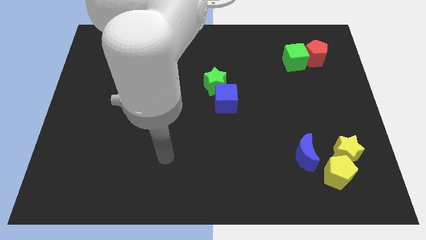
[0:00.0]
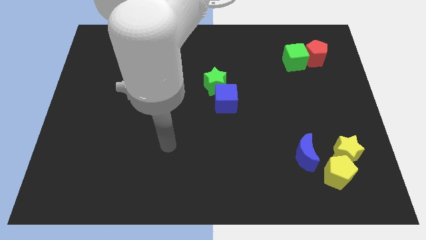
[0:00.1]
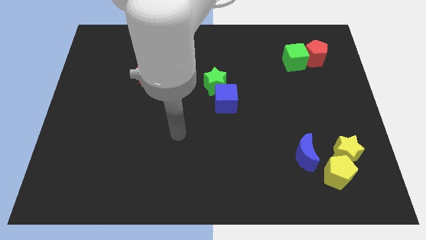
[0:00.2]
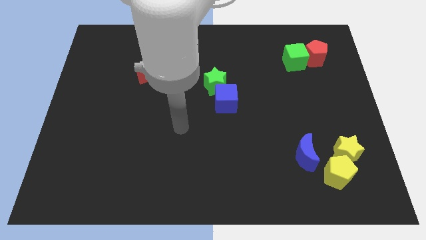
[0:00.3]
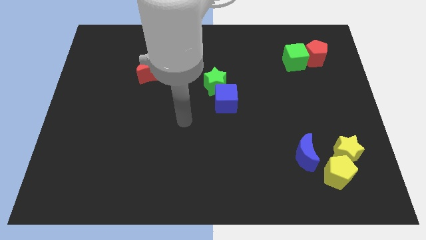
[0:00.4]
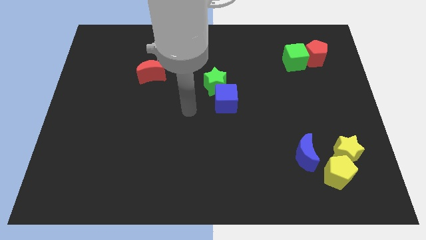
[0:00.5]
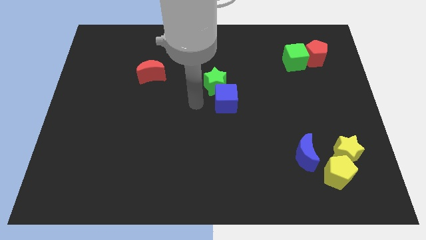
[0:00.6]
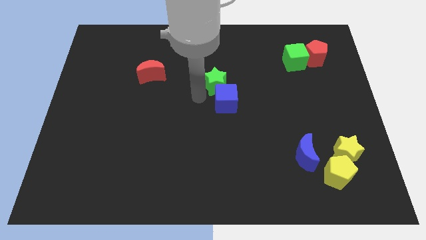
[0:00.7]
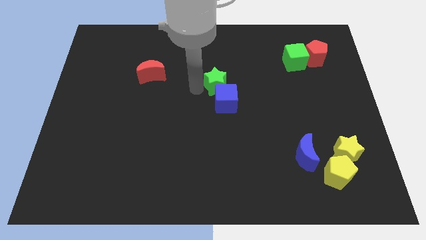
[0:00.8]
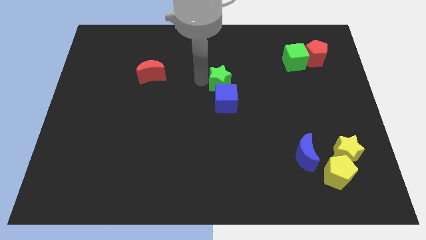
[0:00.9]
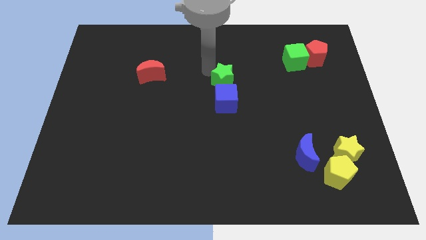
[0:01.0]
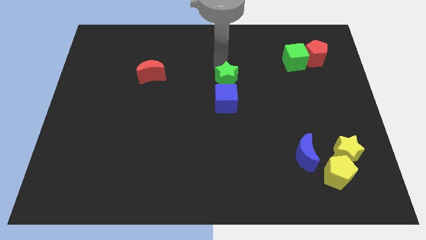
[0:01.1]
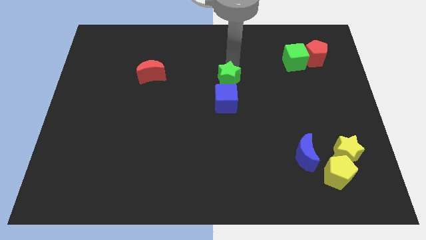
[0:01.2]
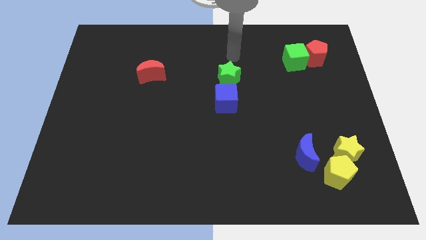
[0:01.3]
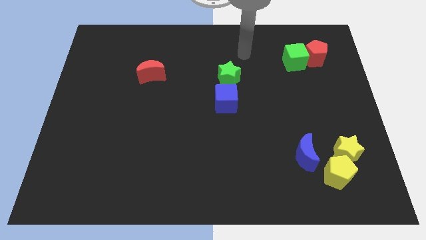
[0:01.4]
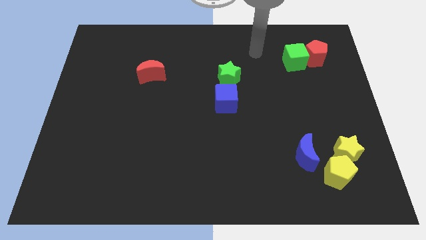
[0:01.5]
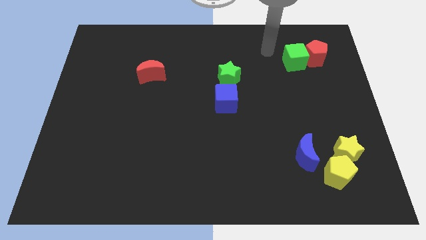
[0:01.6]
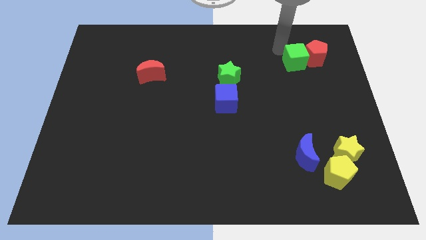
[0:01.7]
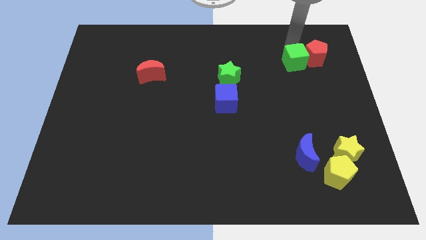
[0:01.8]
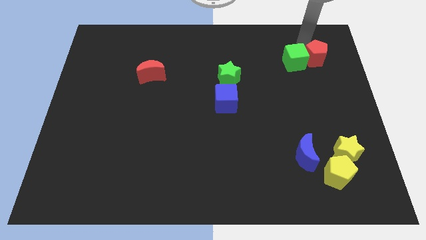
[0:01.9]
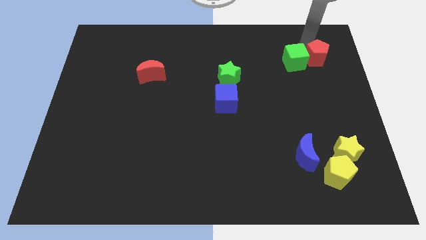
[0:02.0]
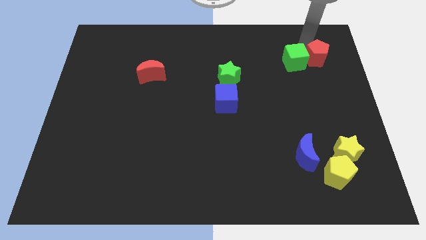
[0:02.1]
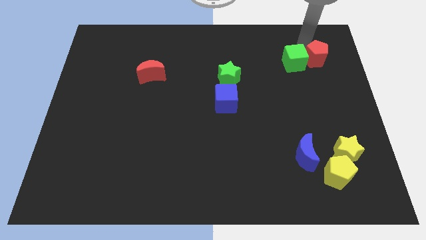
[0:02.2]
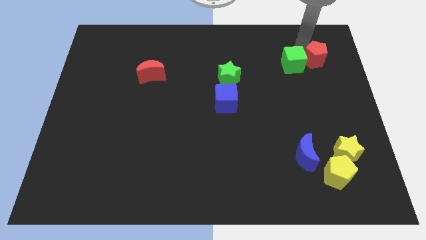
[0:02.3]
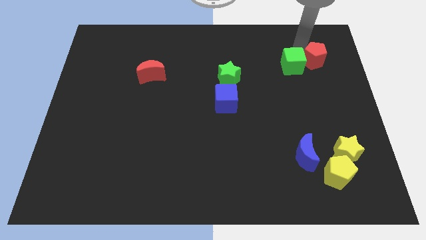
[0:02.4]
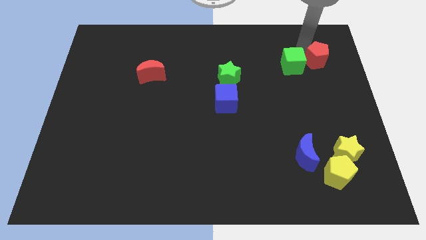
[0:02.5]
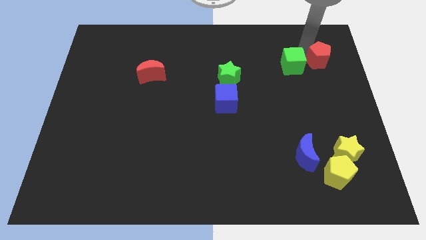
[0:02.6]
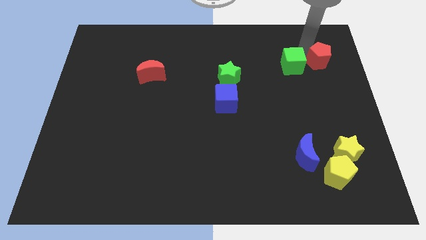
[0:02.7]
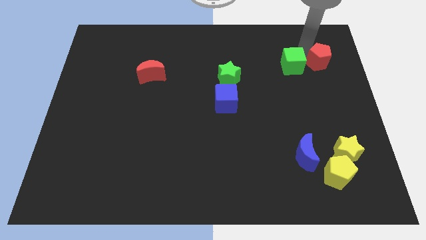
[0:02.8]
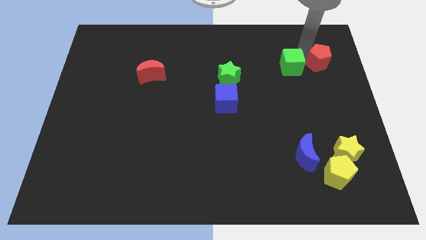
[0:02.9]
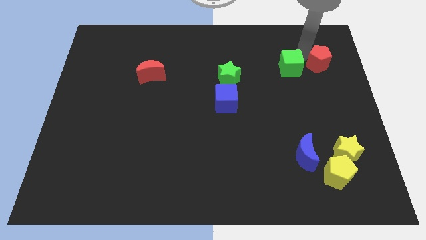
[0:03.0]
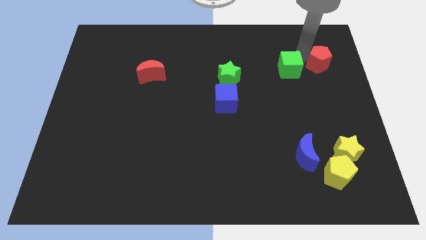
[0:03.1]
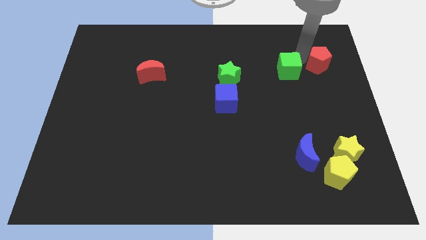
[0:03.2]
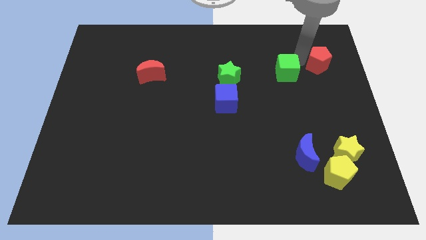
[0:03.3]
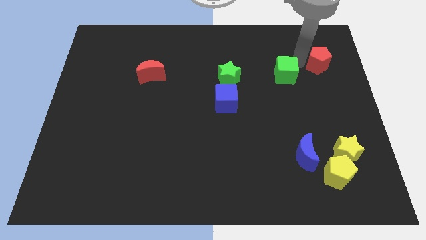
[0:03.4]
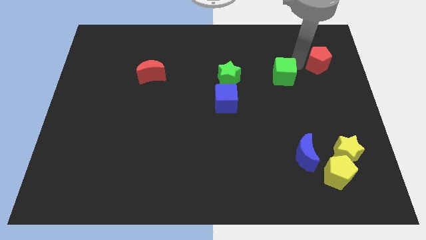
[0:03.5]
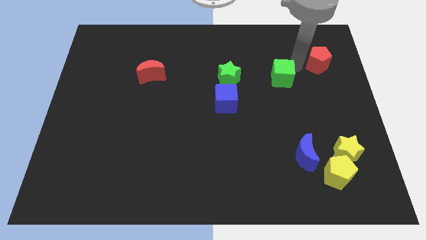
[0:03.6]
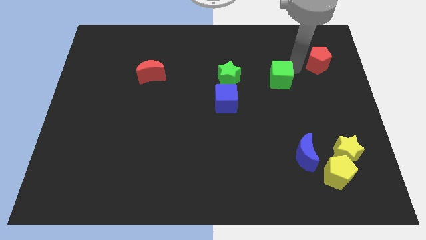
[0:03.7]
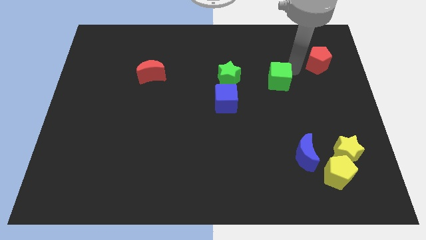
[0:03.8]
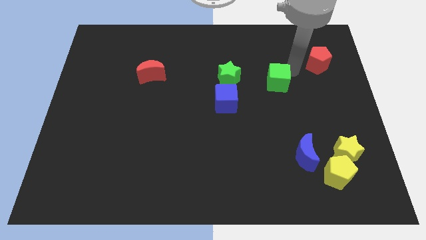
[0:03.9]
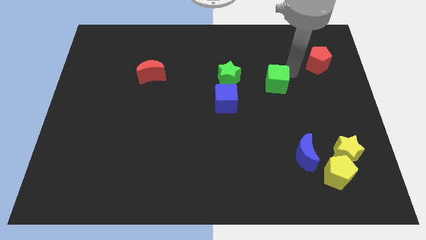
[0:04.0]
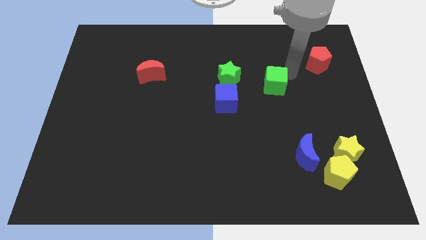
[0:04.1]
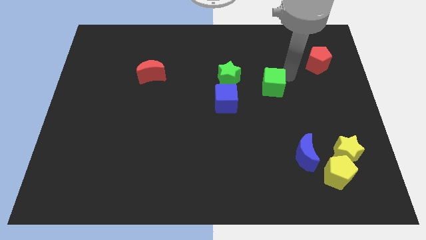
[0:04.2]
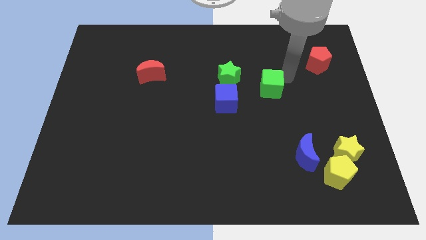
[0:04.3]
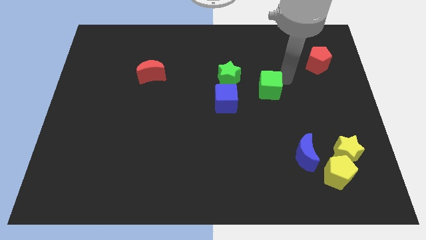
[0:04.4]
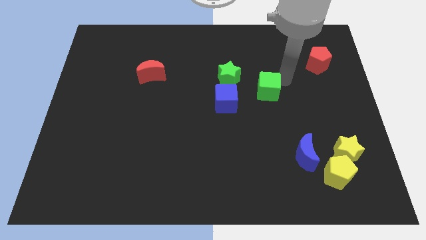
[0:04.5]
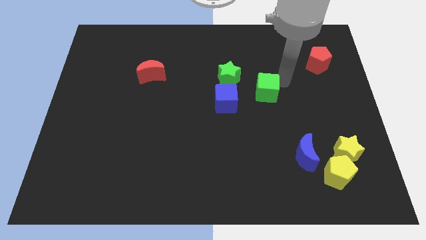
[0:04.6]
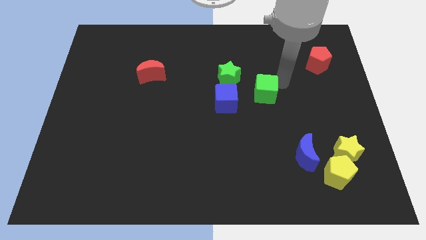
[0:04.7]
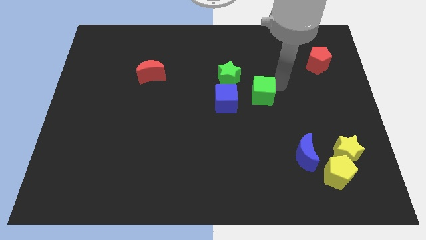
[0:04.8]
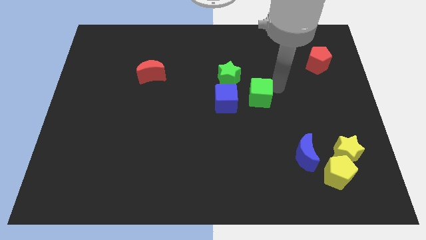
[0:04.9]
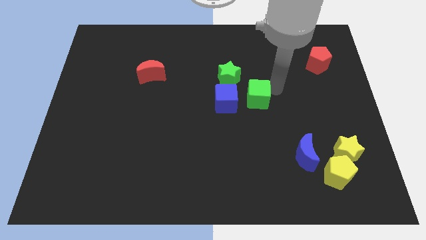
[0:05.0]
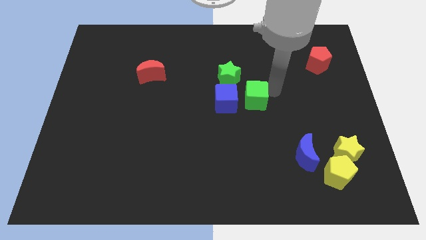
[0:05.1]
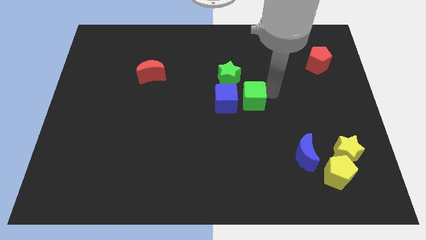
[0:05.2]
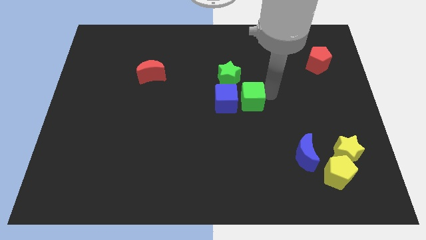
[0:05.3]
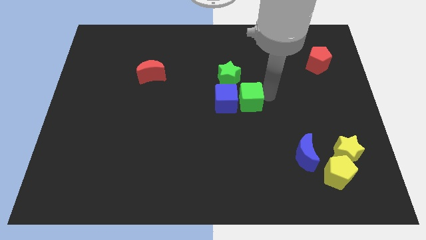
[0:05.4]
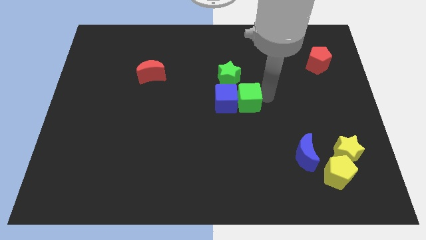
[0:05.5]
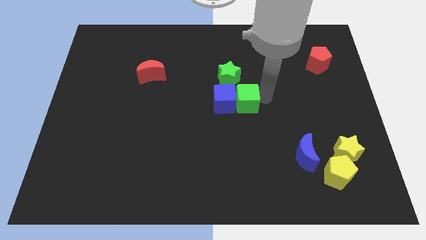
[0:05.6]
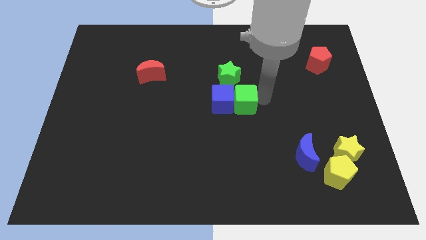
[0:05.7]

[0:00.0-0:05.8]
move the green cube diagonally downwards and to the left

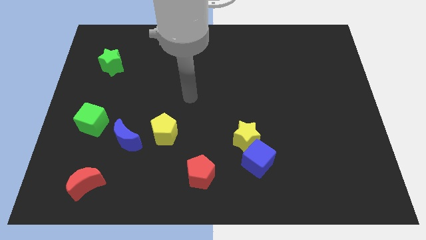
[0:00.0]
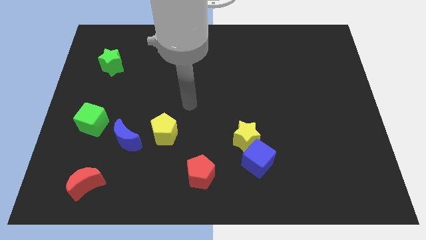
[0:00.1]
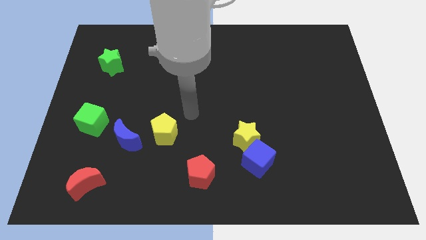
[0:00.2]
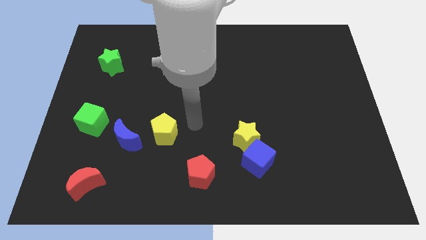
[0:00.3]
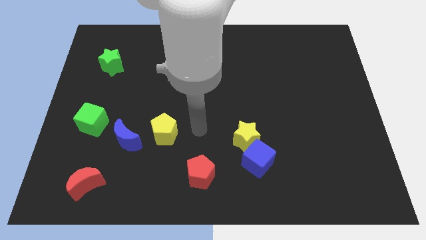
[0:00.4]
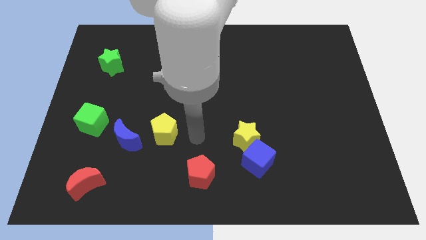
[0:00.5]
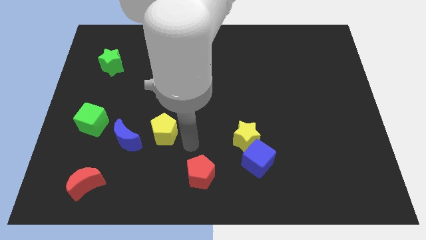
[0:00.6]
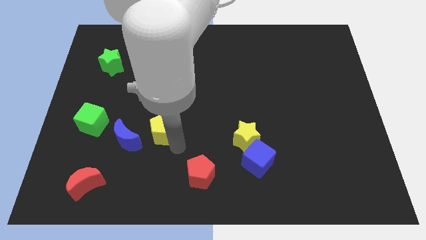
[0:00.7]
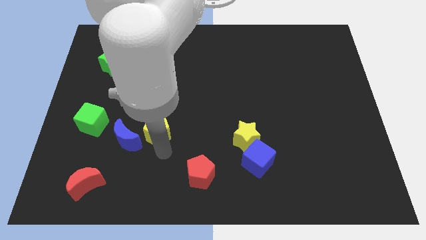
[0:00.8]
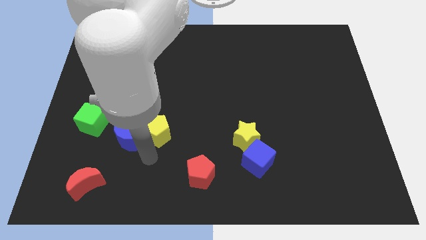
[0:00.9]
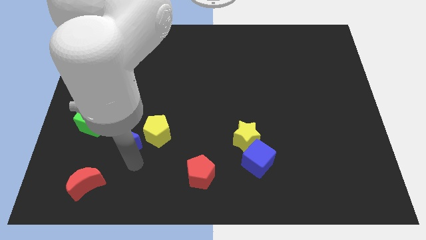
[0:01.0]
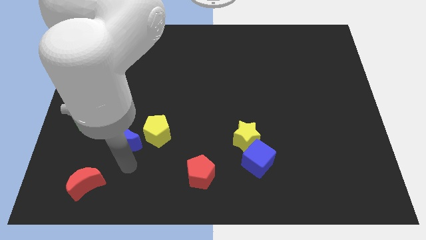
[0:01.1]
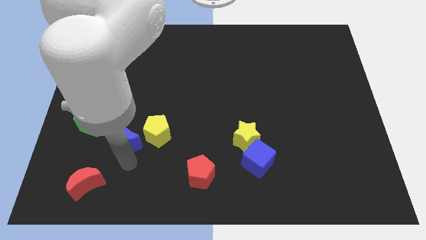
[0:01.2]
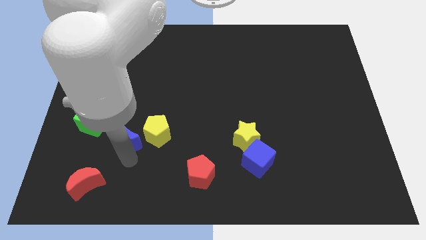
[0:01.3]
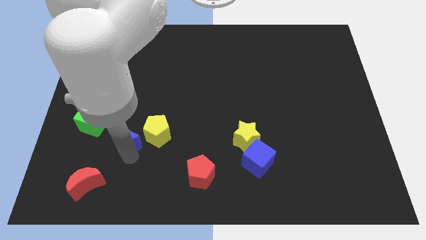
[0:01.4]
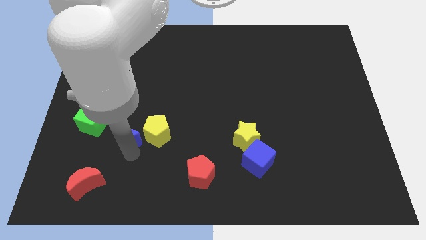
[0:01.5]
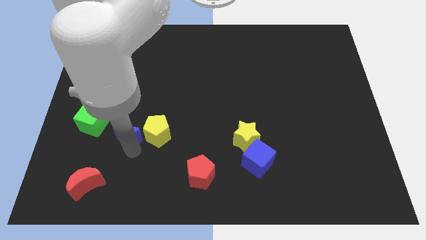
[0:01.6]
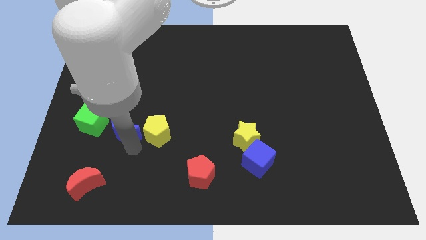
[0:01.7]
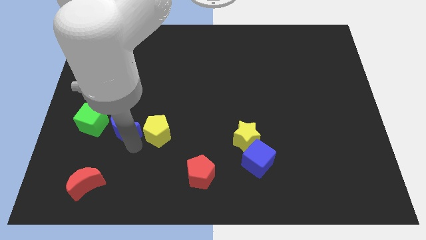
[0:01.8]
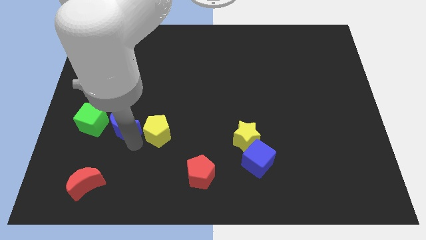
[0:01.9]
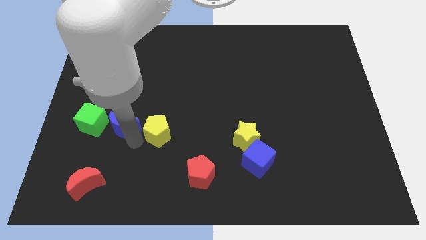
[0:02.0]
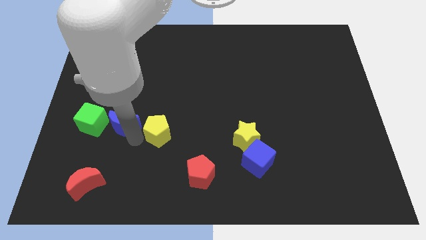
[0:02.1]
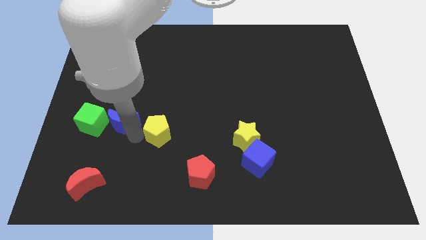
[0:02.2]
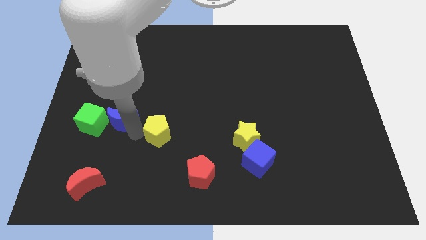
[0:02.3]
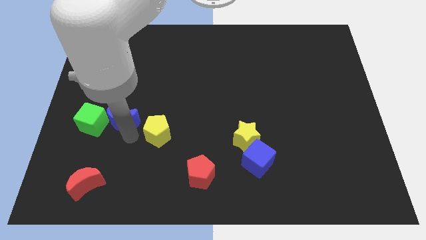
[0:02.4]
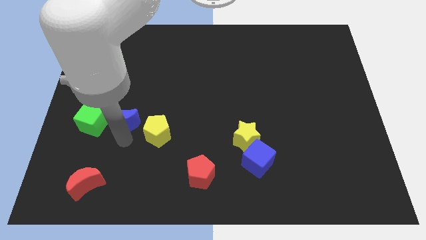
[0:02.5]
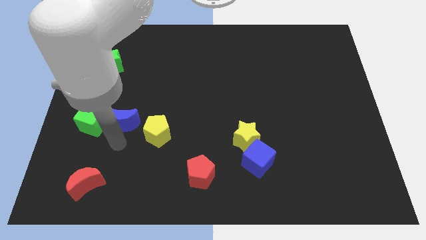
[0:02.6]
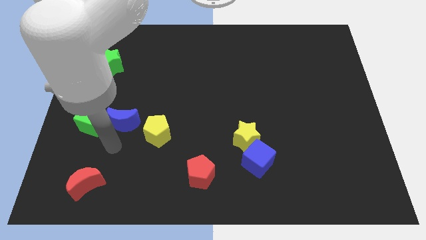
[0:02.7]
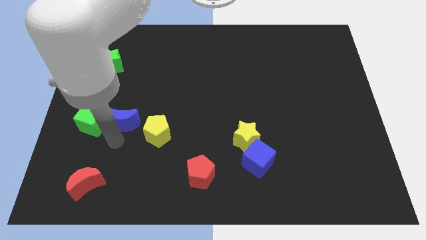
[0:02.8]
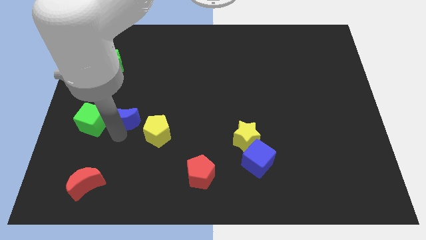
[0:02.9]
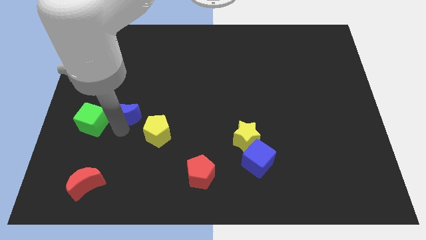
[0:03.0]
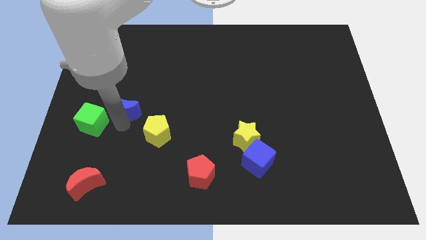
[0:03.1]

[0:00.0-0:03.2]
push the blue moon a little bit up
